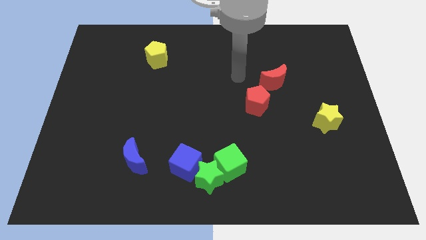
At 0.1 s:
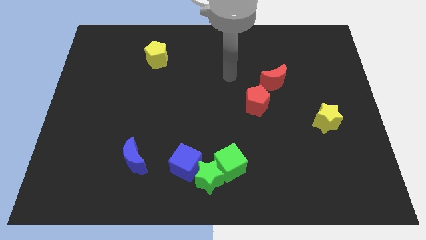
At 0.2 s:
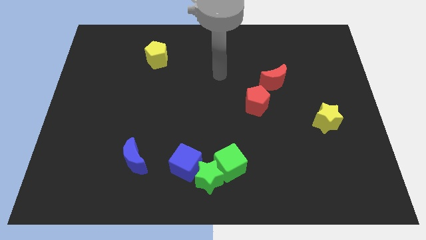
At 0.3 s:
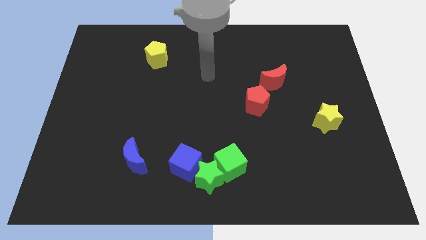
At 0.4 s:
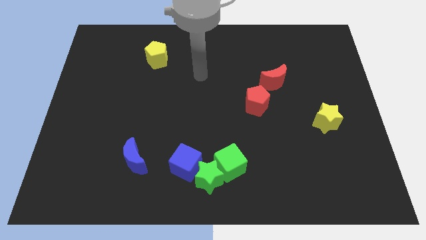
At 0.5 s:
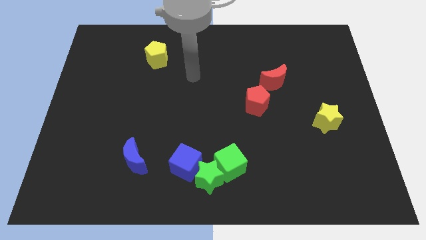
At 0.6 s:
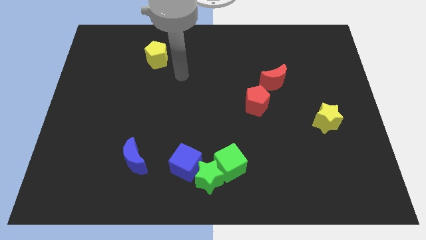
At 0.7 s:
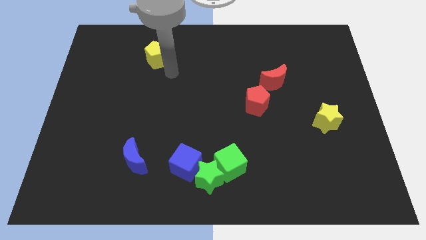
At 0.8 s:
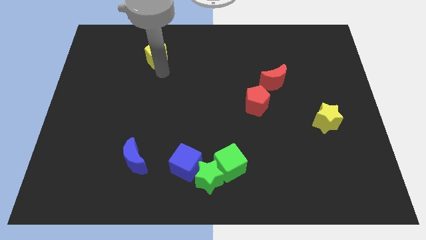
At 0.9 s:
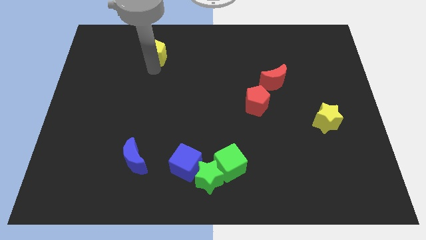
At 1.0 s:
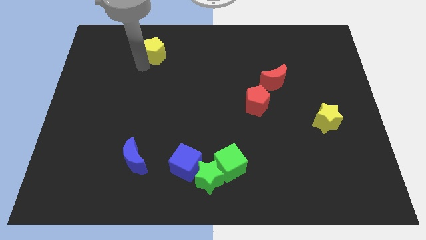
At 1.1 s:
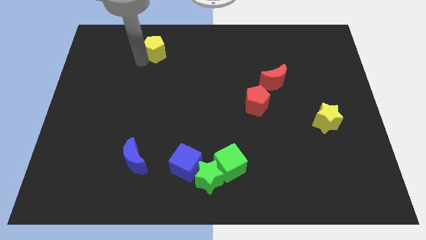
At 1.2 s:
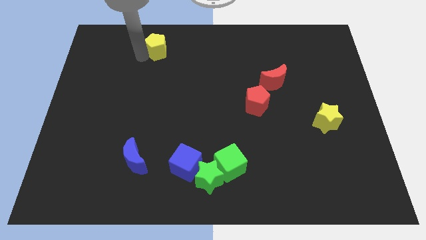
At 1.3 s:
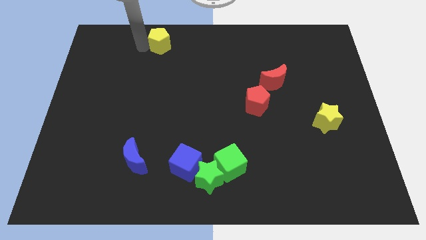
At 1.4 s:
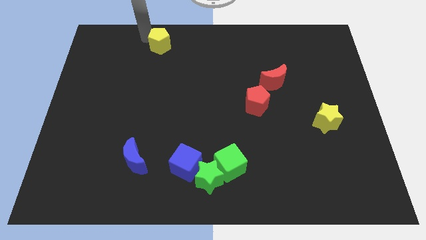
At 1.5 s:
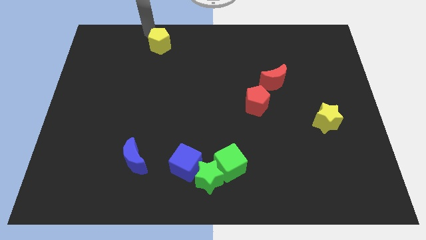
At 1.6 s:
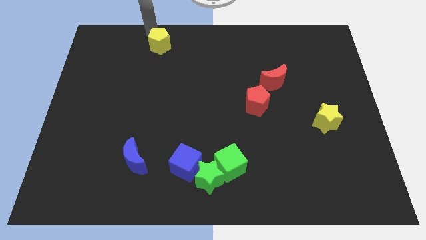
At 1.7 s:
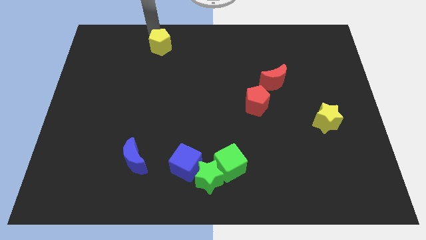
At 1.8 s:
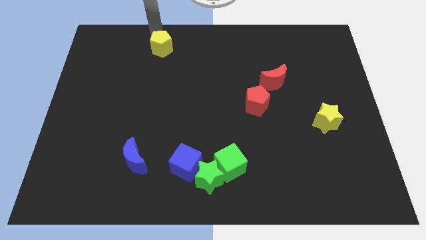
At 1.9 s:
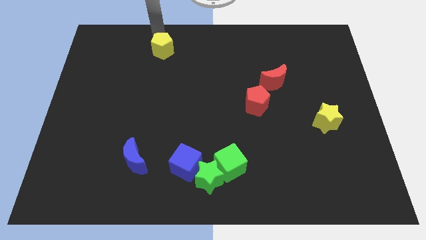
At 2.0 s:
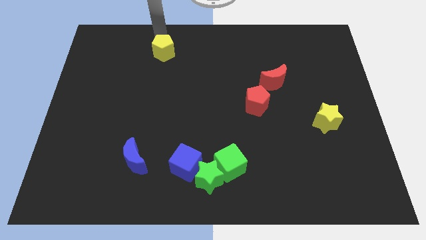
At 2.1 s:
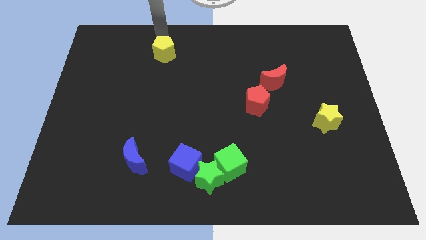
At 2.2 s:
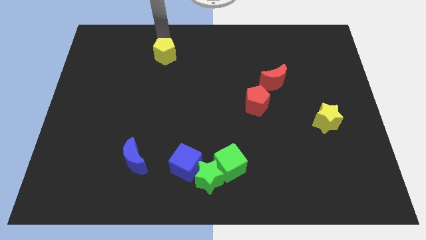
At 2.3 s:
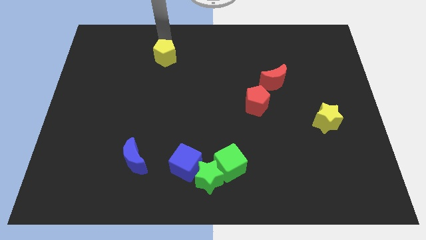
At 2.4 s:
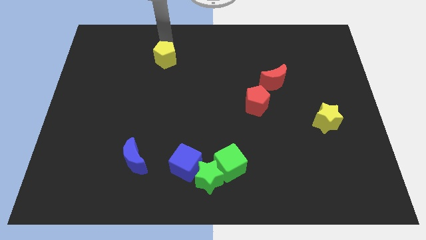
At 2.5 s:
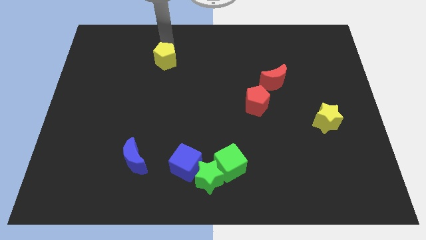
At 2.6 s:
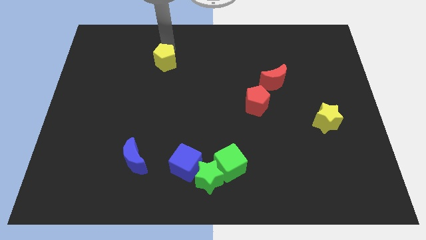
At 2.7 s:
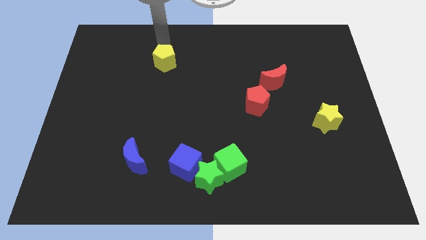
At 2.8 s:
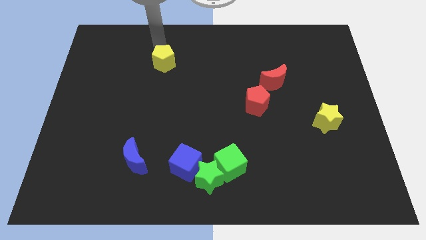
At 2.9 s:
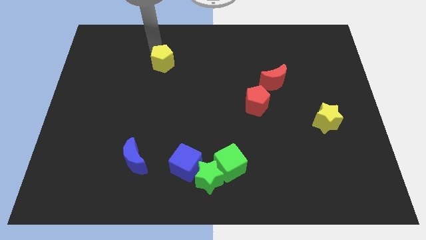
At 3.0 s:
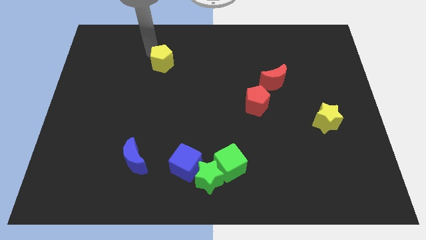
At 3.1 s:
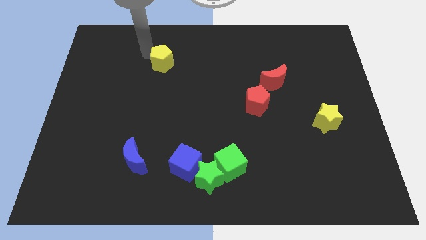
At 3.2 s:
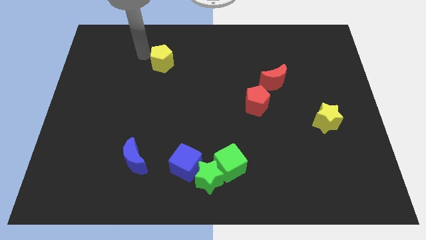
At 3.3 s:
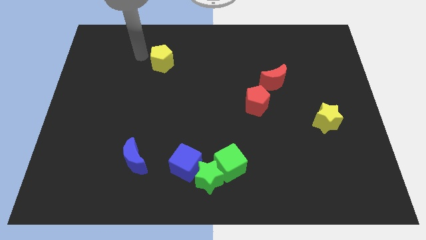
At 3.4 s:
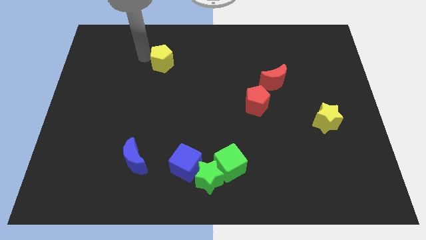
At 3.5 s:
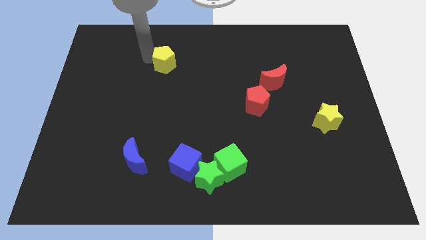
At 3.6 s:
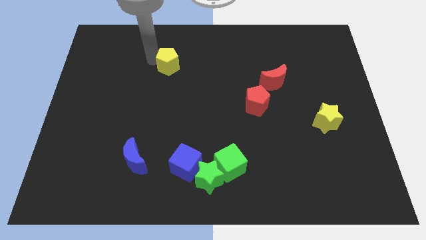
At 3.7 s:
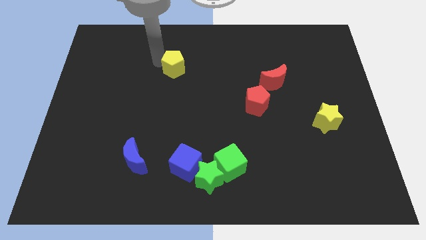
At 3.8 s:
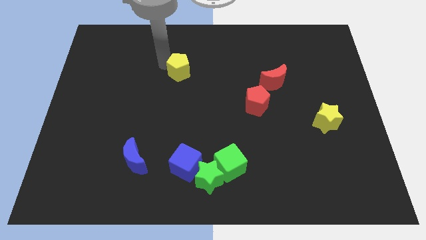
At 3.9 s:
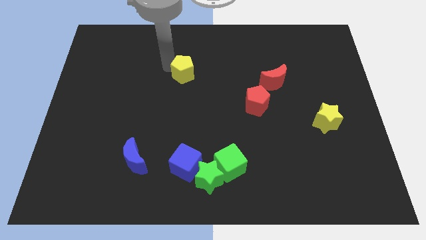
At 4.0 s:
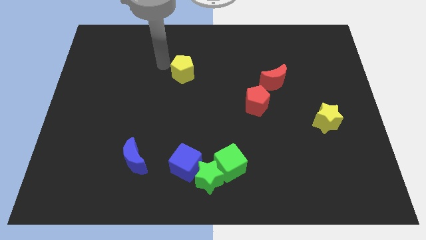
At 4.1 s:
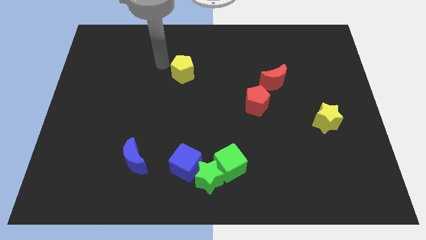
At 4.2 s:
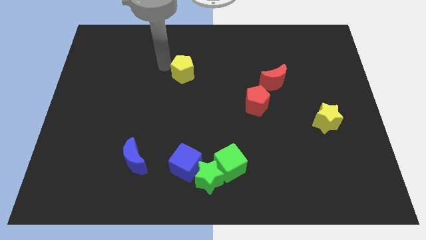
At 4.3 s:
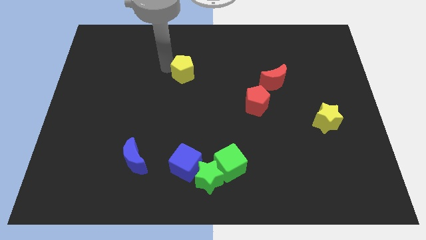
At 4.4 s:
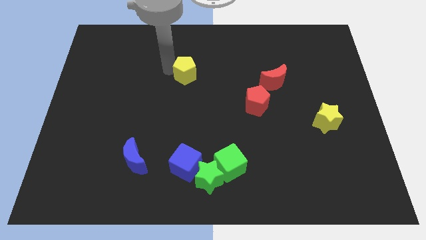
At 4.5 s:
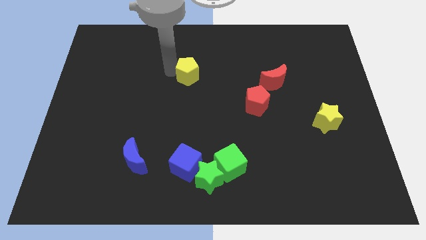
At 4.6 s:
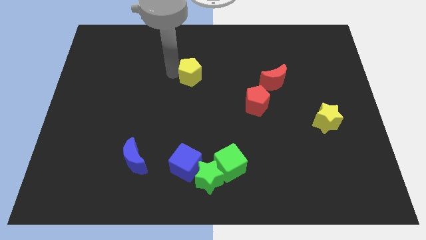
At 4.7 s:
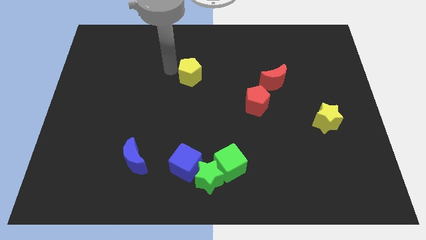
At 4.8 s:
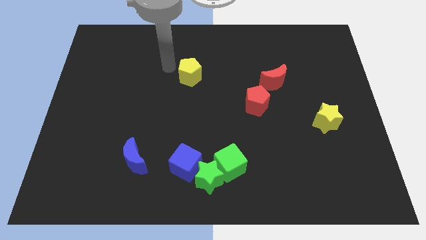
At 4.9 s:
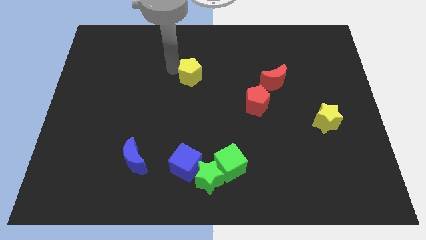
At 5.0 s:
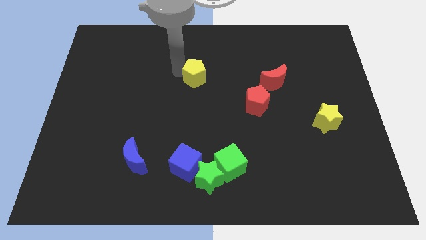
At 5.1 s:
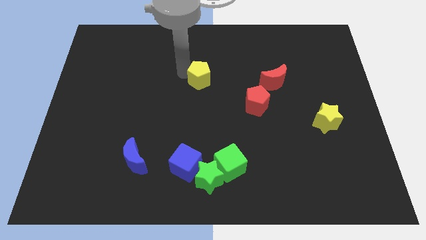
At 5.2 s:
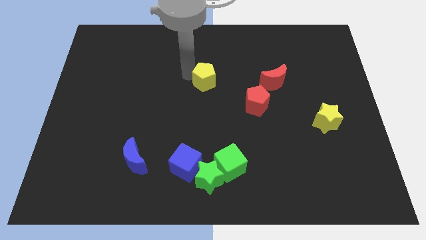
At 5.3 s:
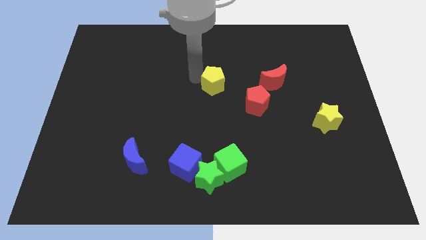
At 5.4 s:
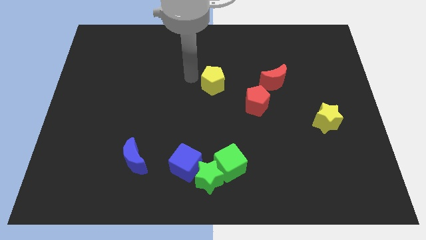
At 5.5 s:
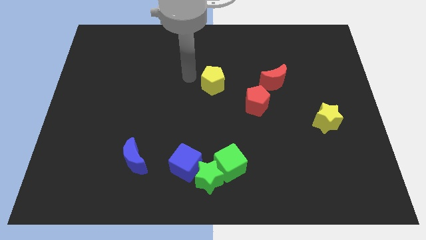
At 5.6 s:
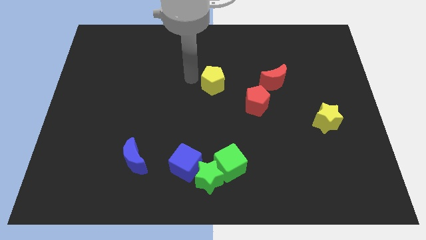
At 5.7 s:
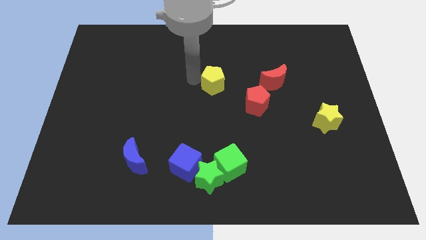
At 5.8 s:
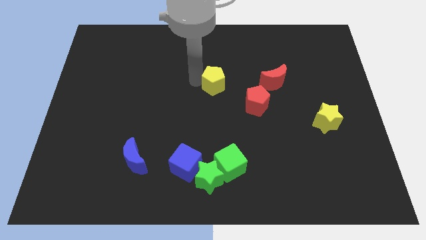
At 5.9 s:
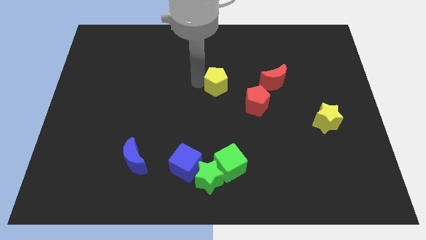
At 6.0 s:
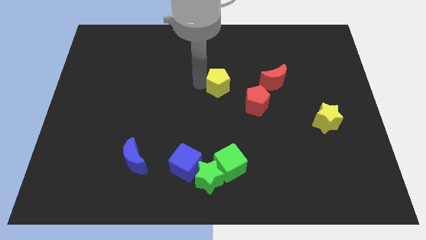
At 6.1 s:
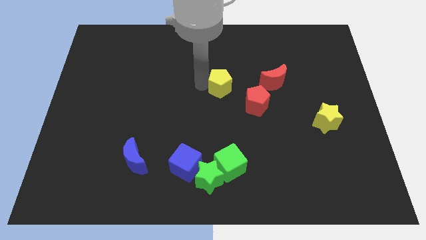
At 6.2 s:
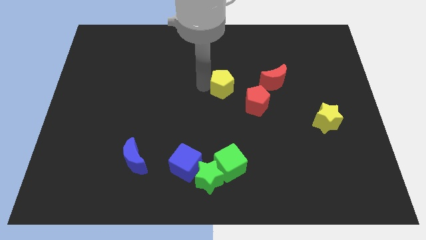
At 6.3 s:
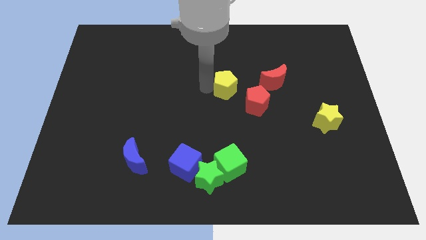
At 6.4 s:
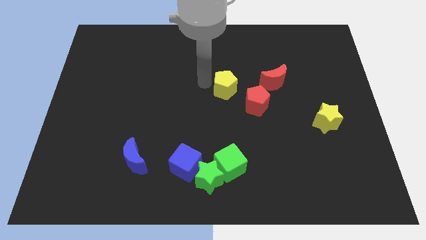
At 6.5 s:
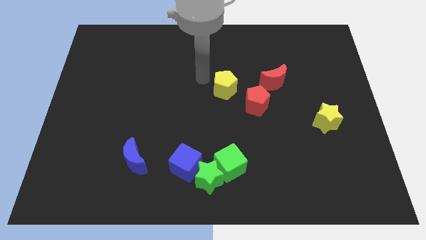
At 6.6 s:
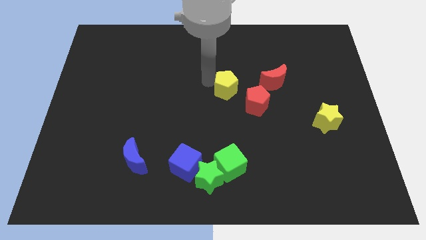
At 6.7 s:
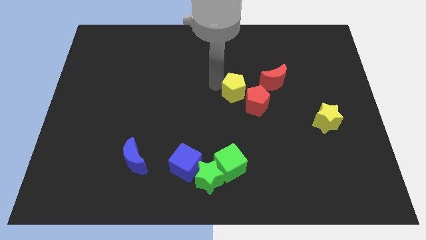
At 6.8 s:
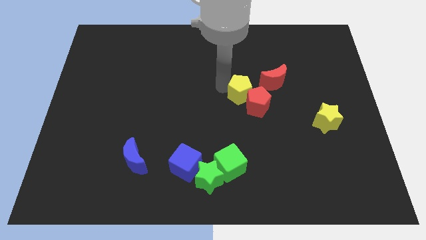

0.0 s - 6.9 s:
push the yellow pentagon next to the red pentagon

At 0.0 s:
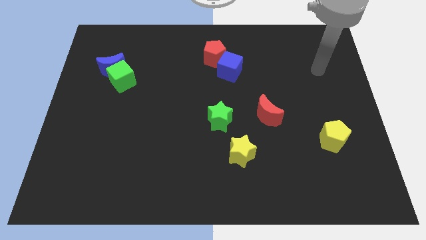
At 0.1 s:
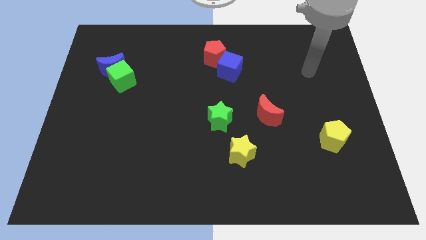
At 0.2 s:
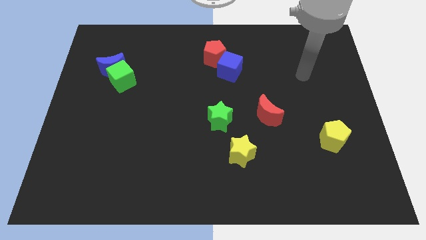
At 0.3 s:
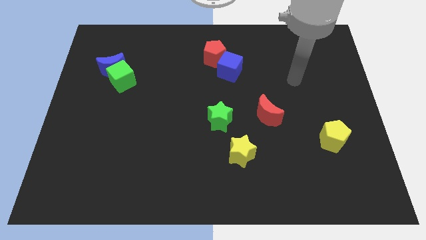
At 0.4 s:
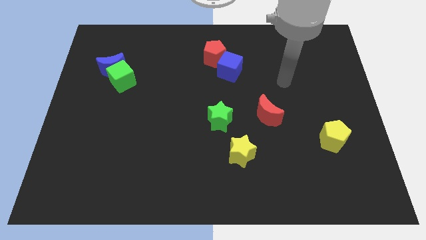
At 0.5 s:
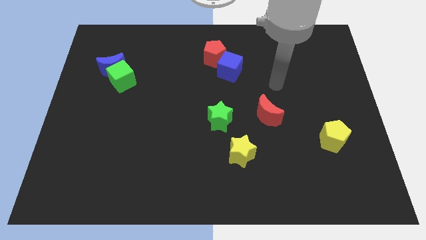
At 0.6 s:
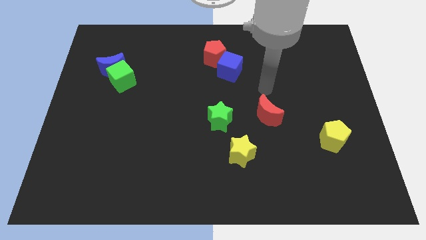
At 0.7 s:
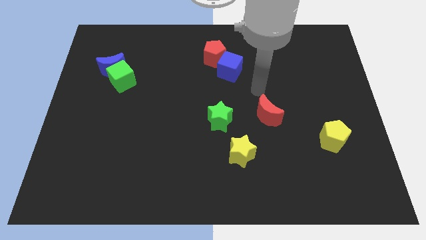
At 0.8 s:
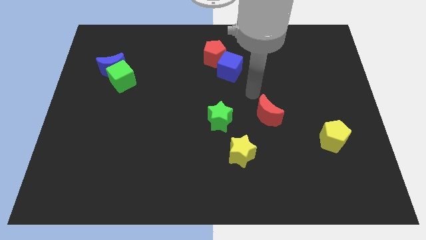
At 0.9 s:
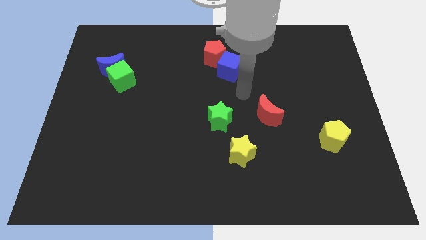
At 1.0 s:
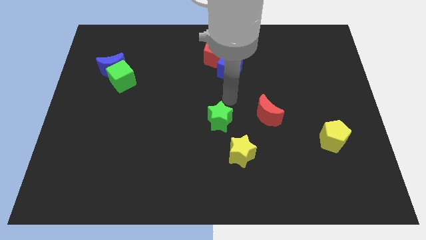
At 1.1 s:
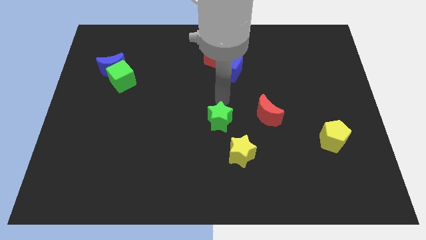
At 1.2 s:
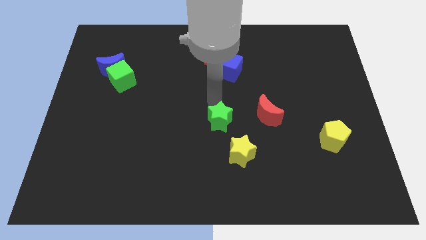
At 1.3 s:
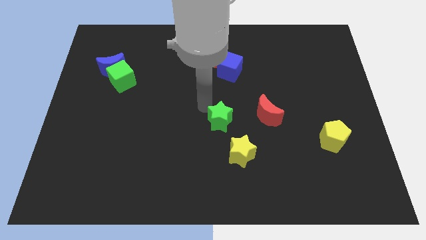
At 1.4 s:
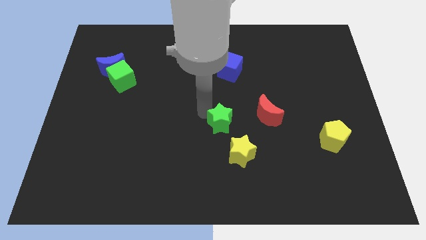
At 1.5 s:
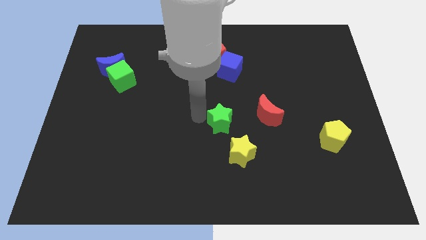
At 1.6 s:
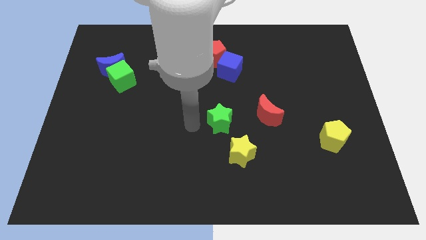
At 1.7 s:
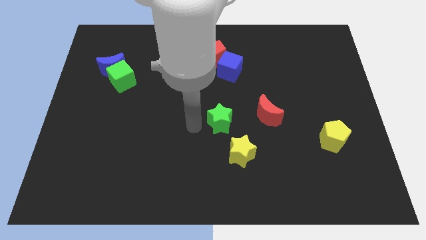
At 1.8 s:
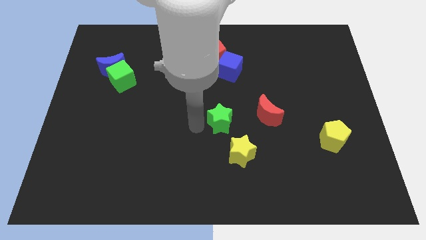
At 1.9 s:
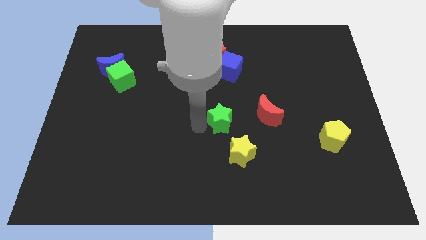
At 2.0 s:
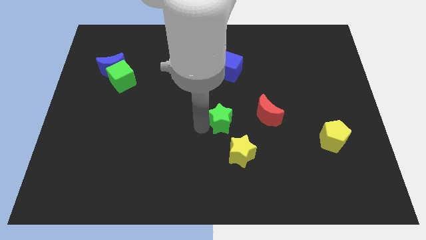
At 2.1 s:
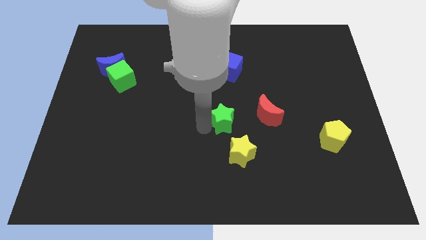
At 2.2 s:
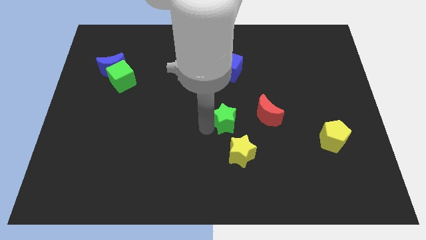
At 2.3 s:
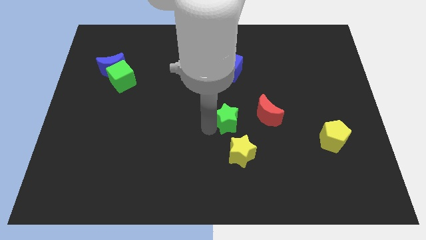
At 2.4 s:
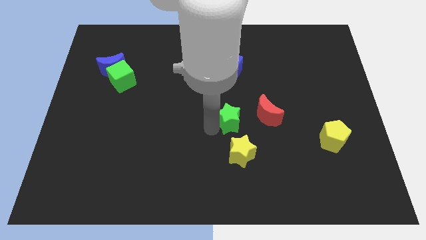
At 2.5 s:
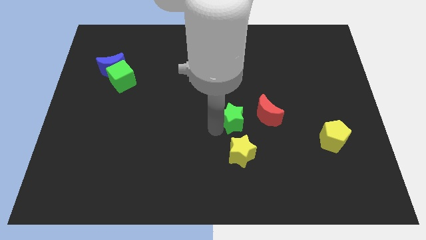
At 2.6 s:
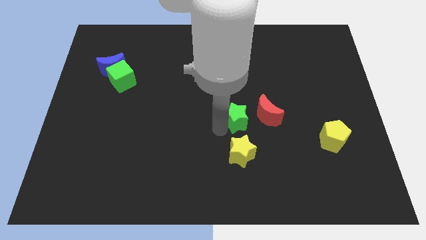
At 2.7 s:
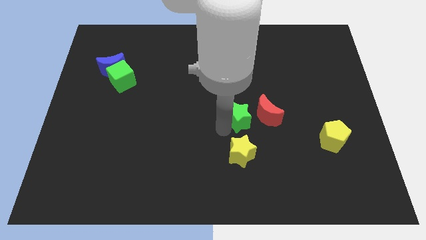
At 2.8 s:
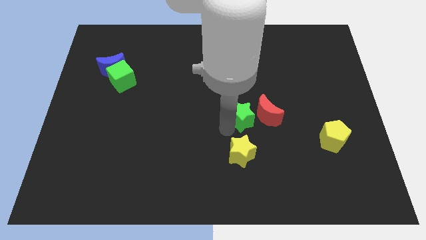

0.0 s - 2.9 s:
move the green star towards the red moon
